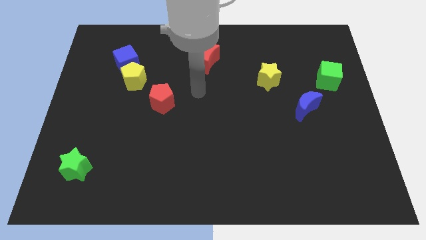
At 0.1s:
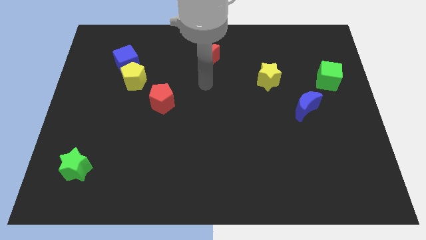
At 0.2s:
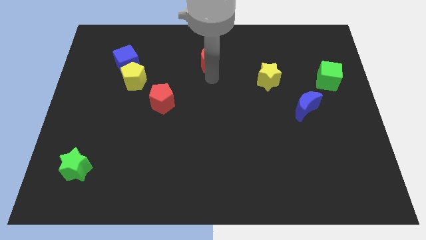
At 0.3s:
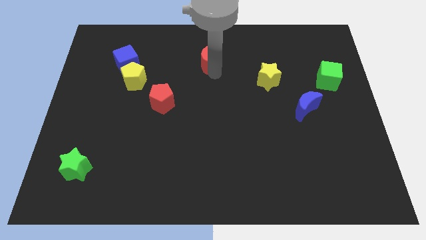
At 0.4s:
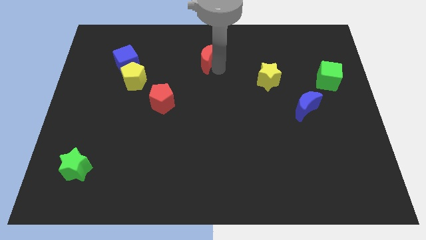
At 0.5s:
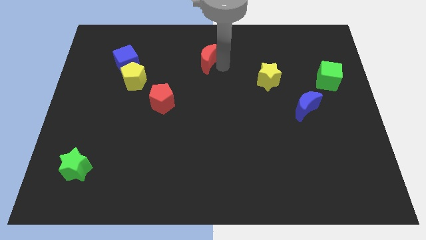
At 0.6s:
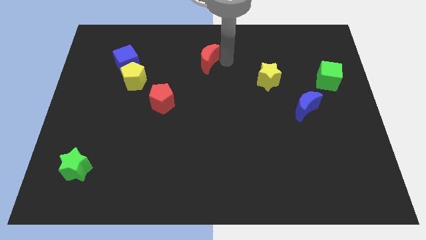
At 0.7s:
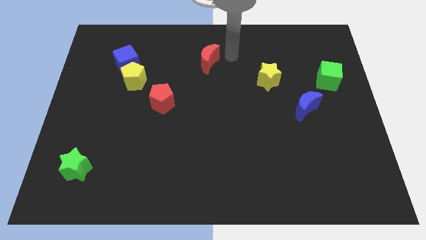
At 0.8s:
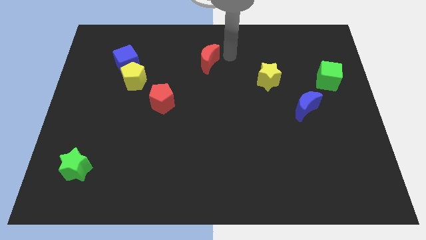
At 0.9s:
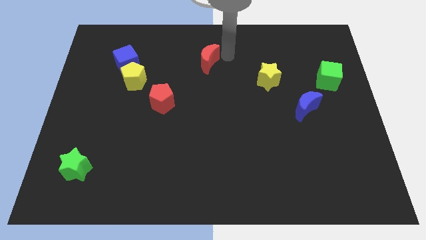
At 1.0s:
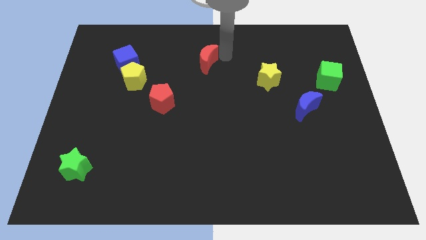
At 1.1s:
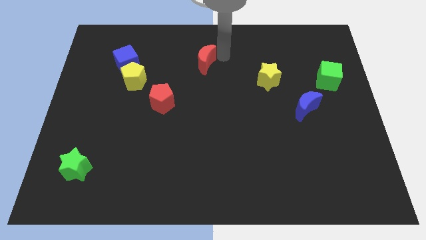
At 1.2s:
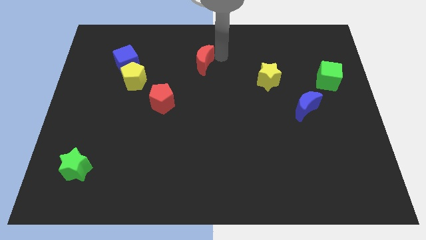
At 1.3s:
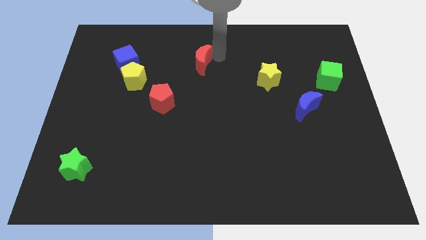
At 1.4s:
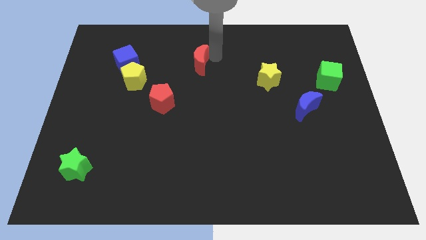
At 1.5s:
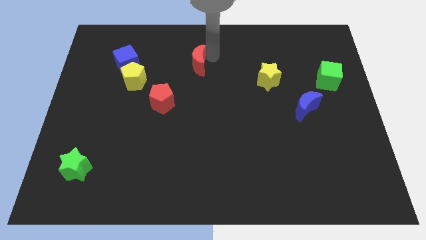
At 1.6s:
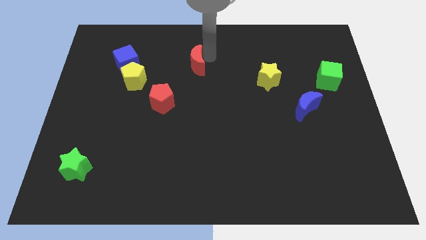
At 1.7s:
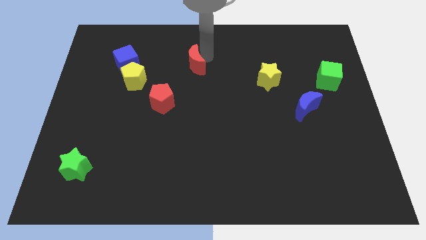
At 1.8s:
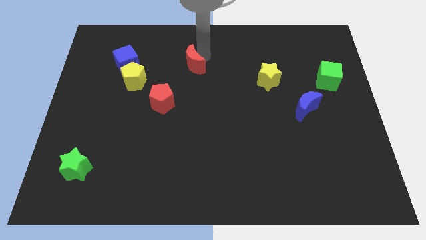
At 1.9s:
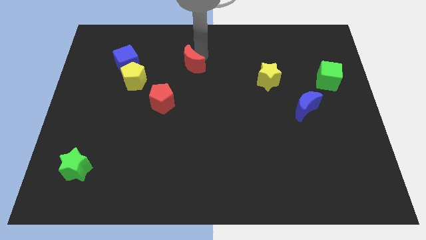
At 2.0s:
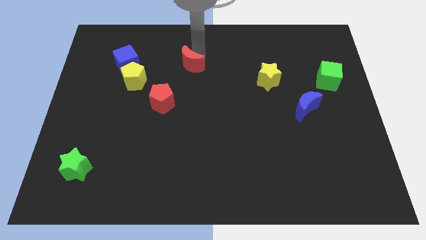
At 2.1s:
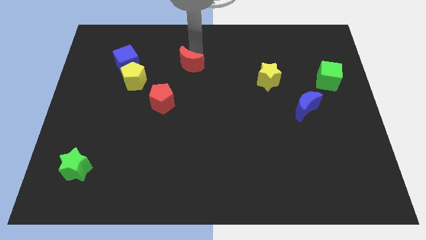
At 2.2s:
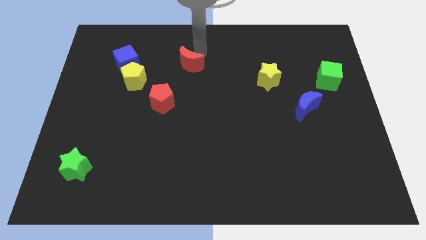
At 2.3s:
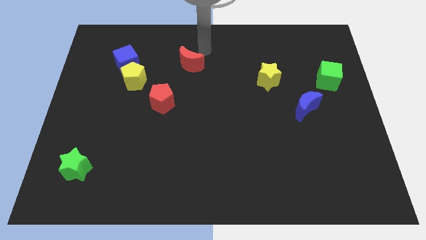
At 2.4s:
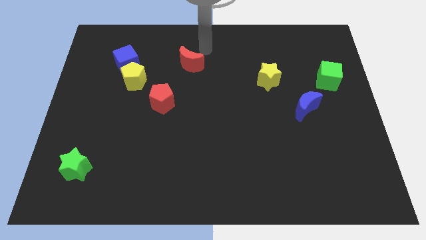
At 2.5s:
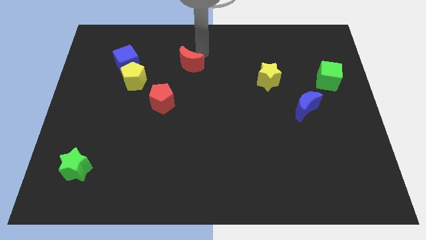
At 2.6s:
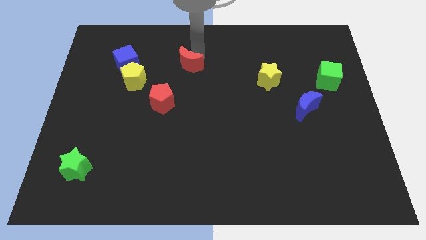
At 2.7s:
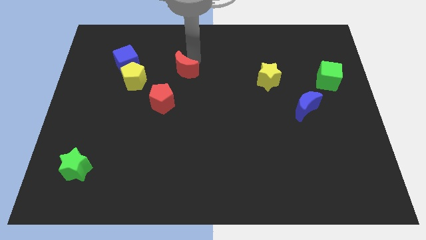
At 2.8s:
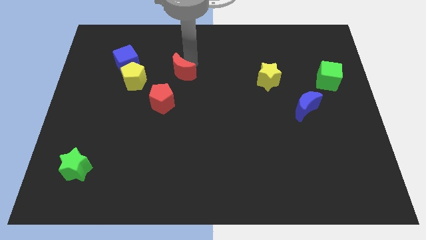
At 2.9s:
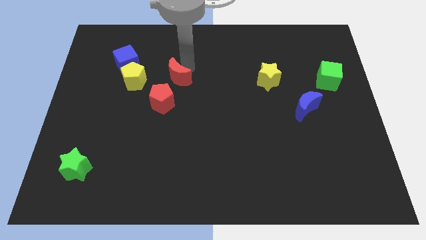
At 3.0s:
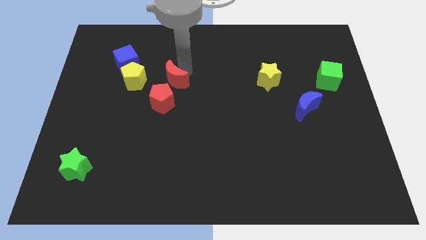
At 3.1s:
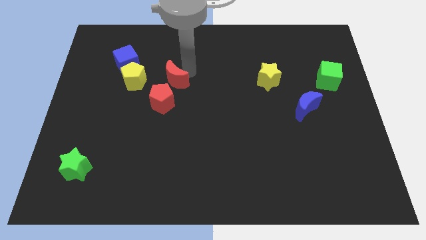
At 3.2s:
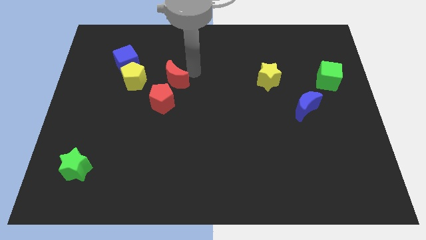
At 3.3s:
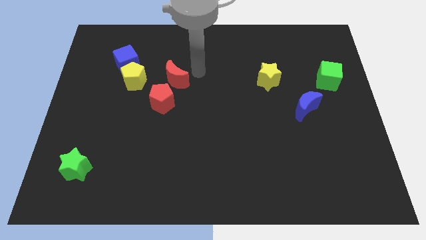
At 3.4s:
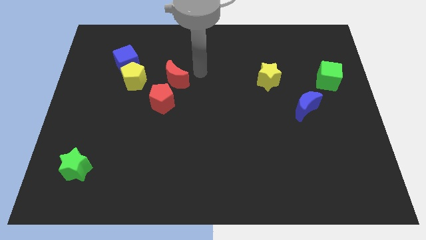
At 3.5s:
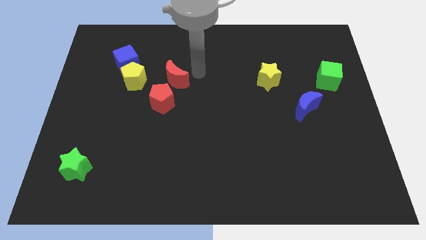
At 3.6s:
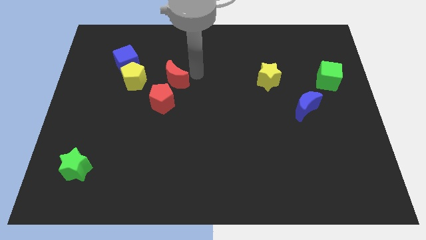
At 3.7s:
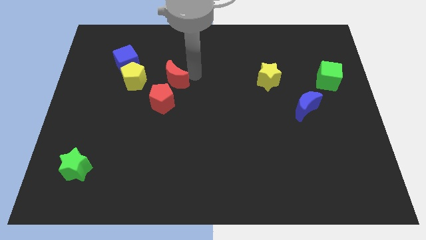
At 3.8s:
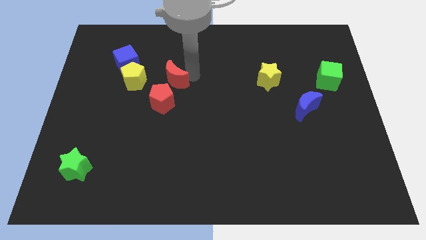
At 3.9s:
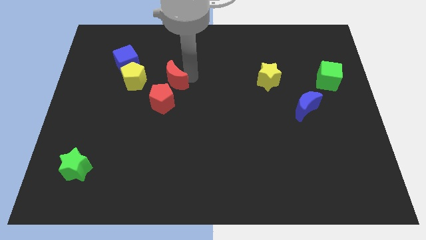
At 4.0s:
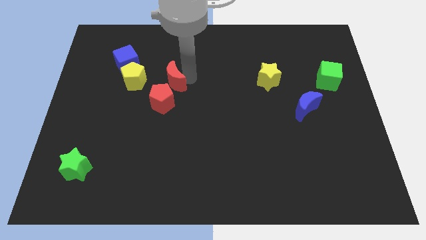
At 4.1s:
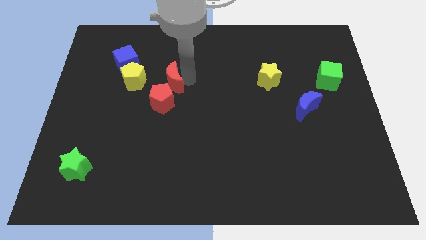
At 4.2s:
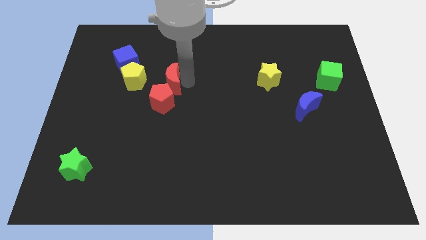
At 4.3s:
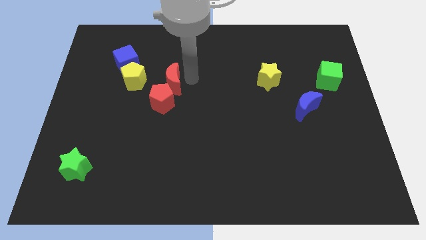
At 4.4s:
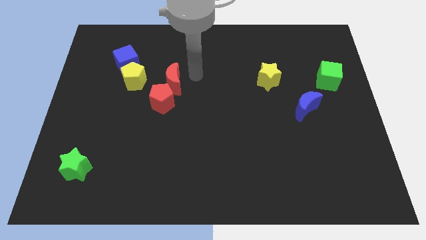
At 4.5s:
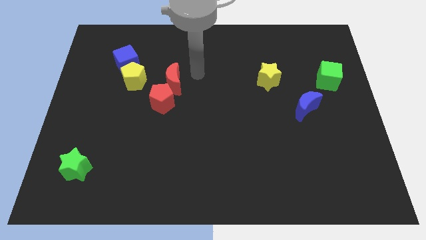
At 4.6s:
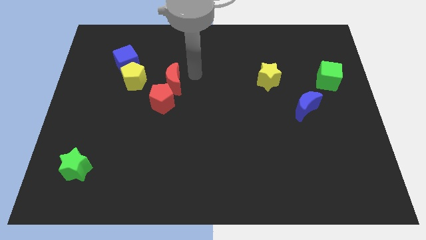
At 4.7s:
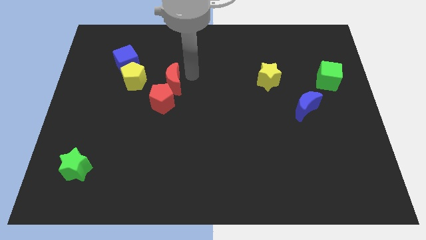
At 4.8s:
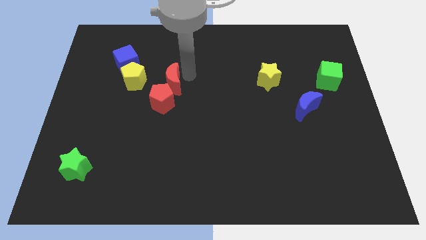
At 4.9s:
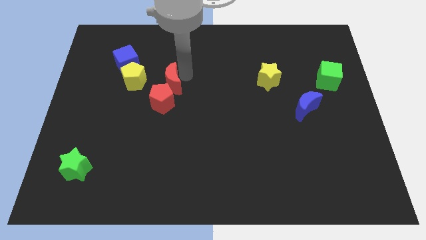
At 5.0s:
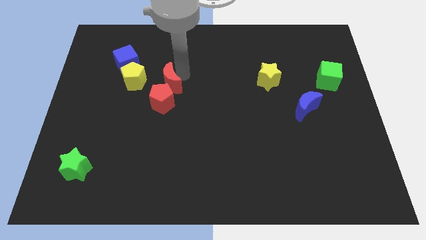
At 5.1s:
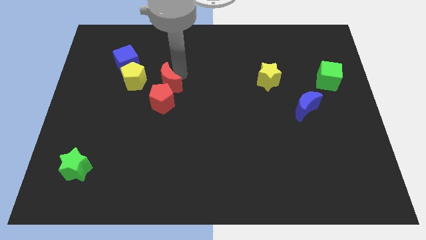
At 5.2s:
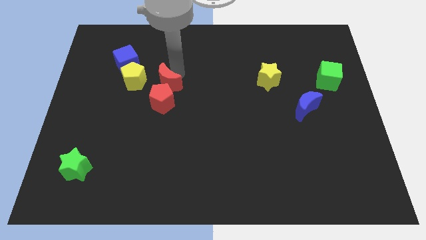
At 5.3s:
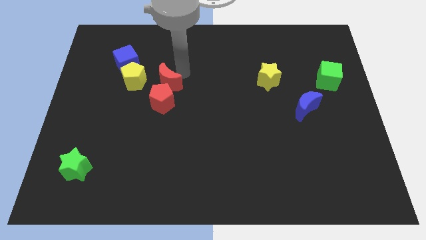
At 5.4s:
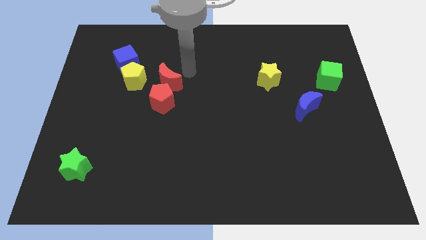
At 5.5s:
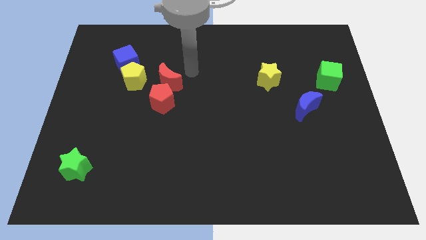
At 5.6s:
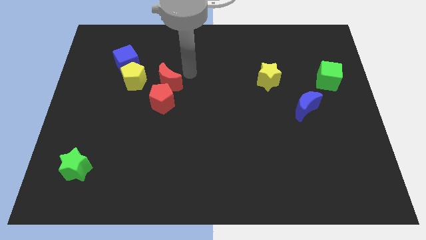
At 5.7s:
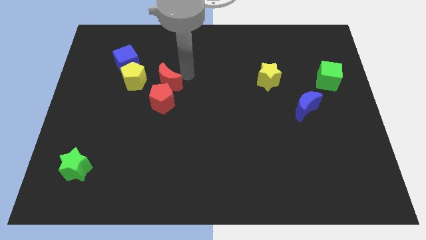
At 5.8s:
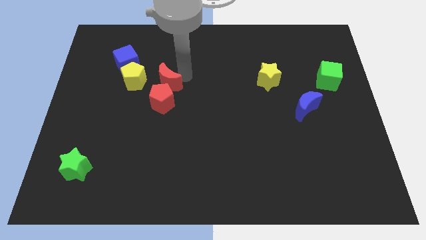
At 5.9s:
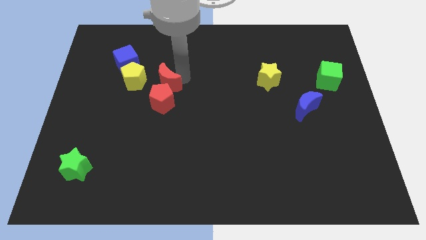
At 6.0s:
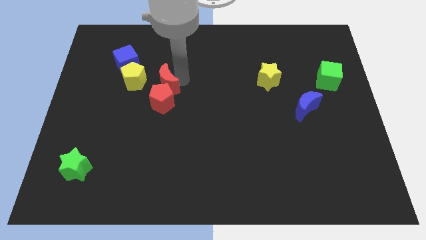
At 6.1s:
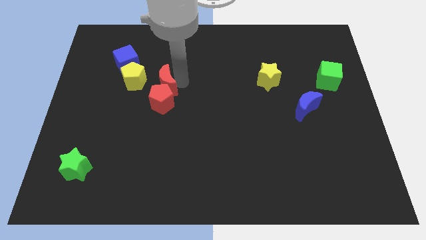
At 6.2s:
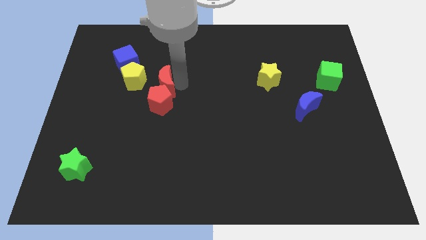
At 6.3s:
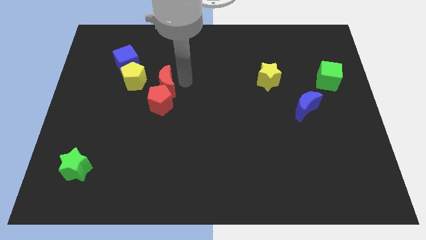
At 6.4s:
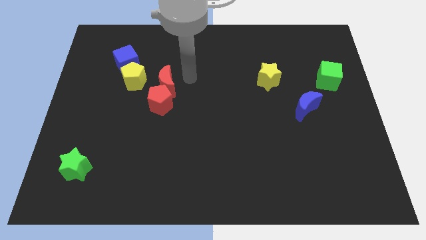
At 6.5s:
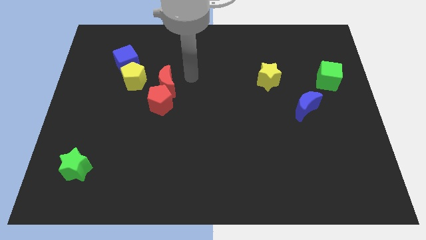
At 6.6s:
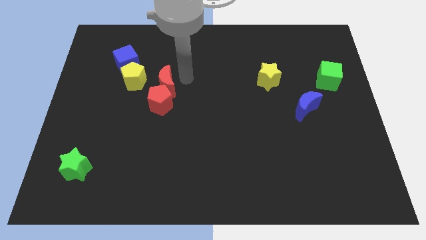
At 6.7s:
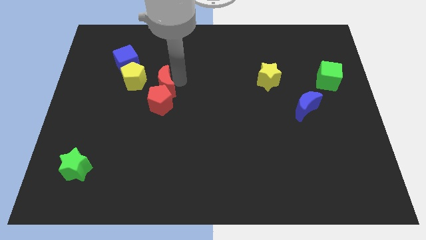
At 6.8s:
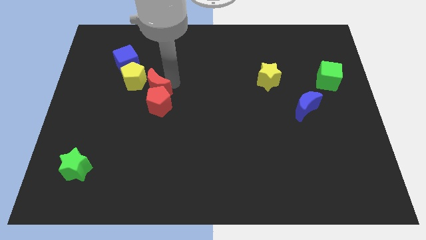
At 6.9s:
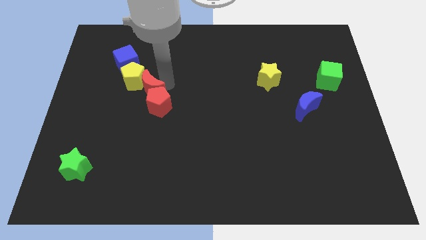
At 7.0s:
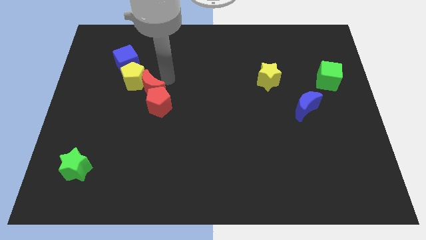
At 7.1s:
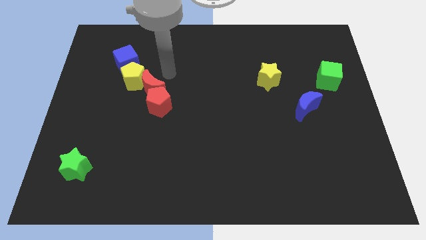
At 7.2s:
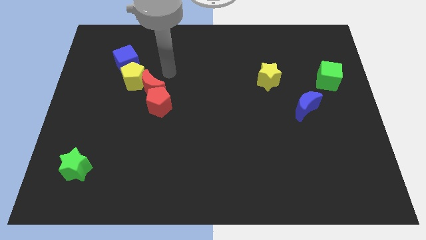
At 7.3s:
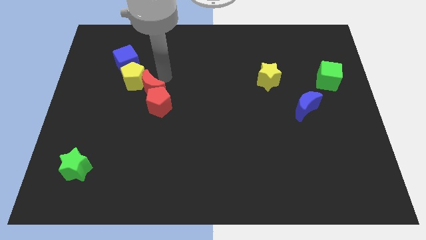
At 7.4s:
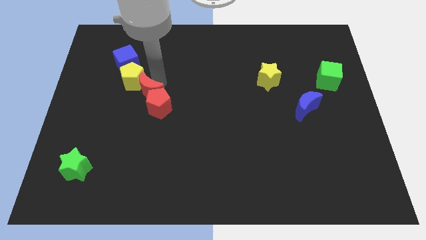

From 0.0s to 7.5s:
slide the red moon below the yellow pentagon
